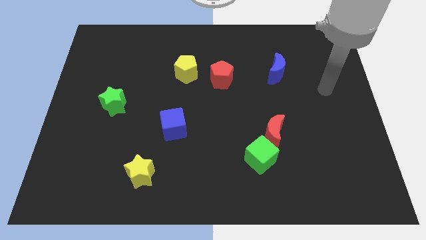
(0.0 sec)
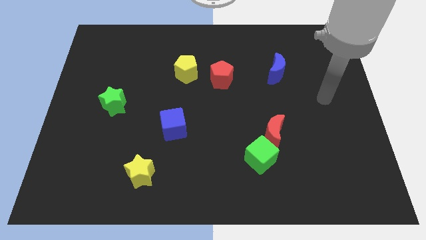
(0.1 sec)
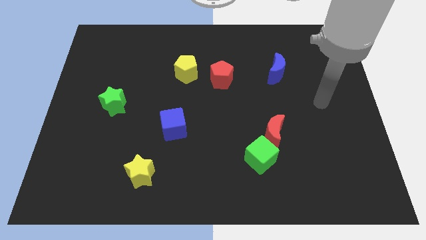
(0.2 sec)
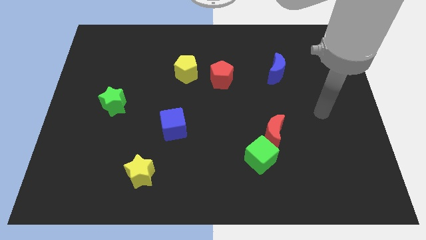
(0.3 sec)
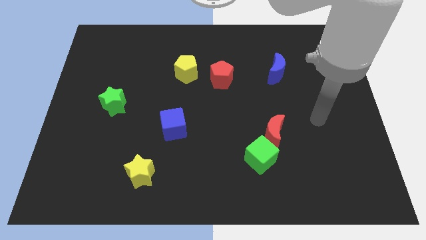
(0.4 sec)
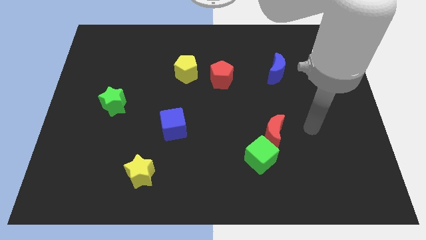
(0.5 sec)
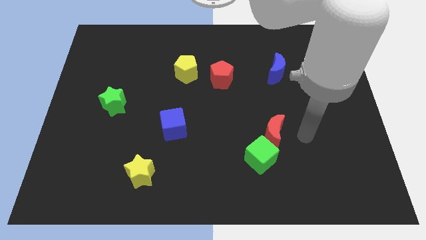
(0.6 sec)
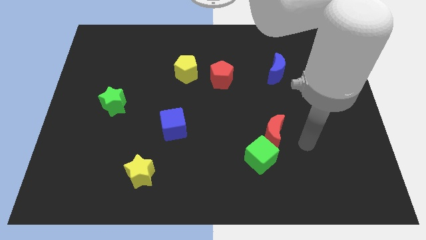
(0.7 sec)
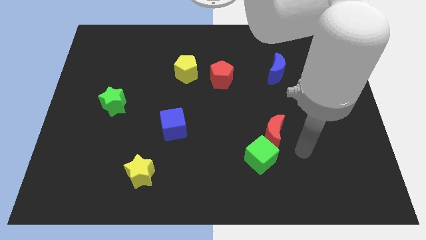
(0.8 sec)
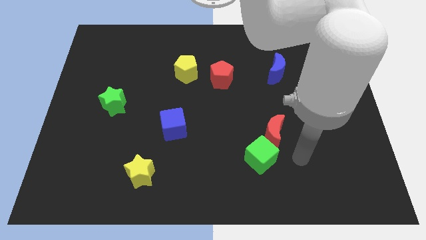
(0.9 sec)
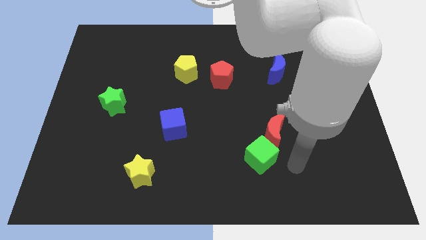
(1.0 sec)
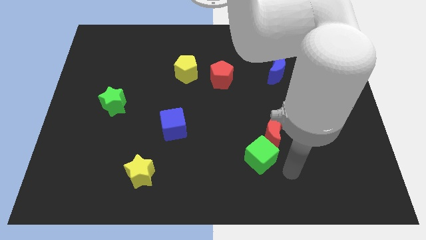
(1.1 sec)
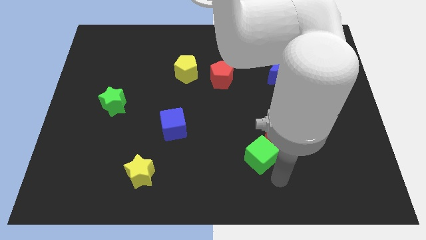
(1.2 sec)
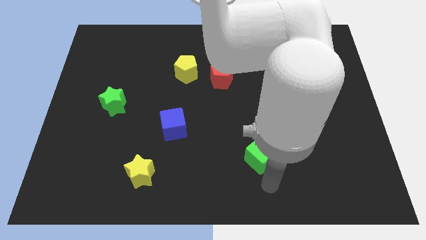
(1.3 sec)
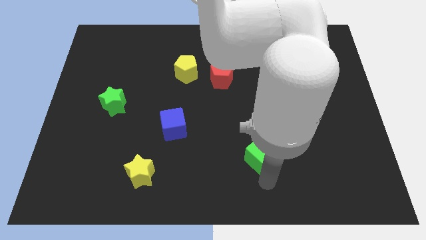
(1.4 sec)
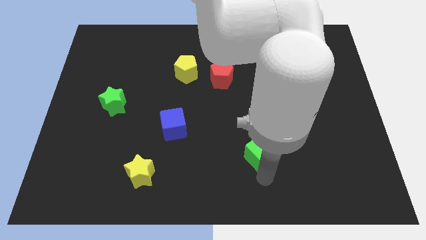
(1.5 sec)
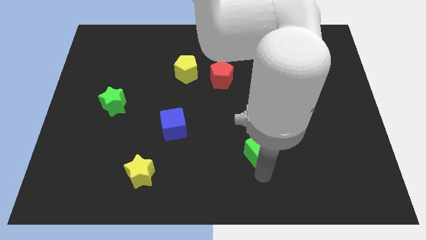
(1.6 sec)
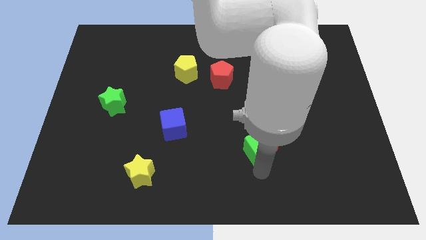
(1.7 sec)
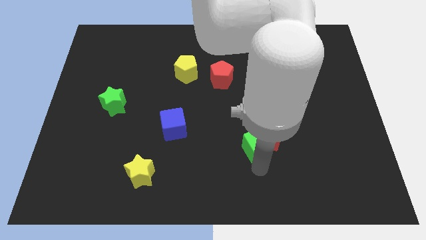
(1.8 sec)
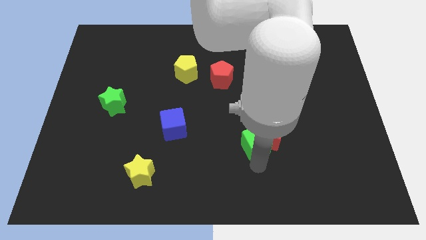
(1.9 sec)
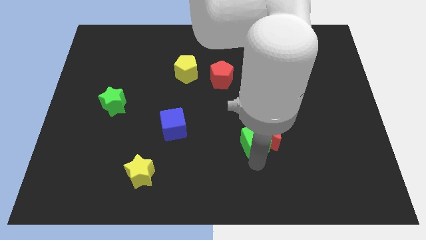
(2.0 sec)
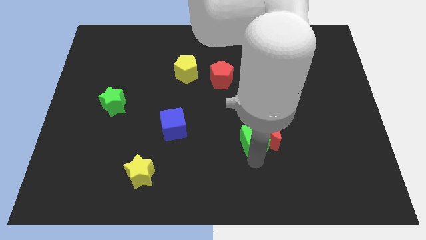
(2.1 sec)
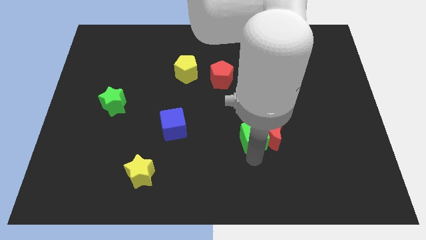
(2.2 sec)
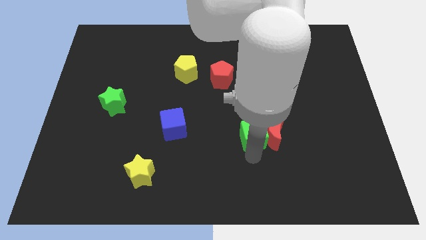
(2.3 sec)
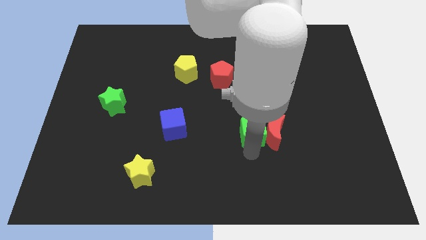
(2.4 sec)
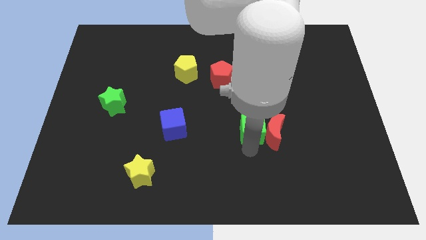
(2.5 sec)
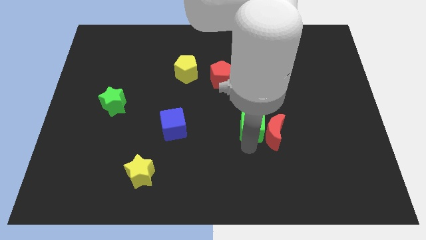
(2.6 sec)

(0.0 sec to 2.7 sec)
move the green cube a little bit upwards

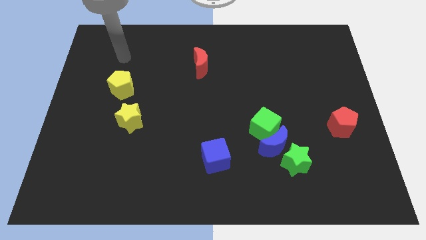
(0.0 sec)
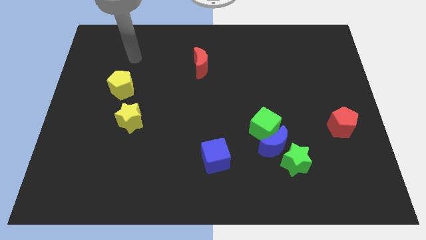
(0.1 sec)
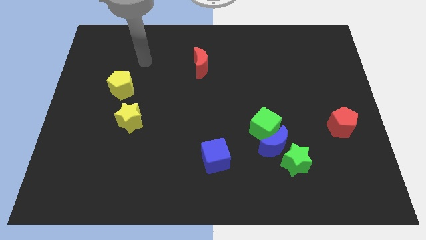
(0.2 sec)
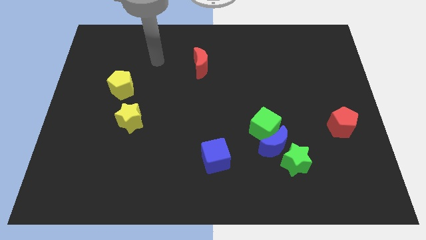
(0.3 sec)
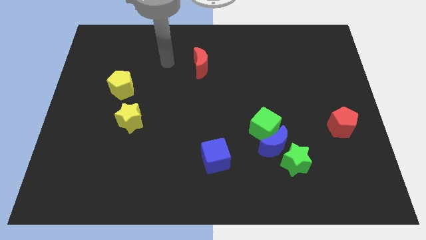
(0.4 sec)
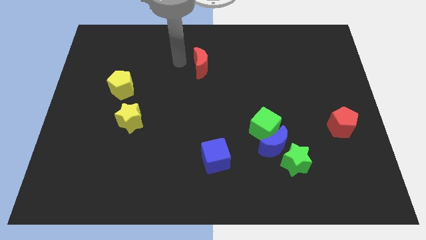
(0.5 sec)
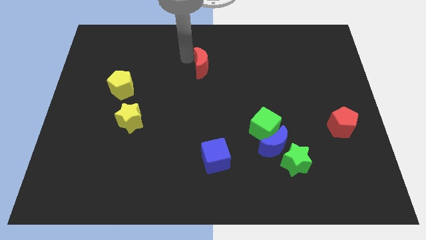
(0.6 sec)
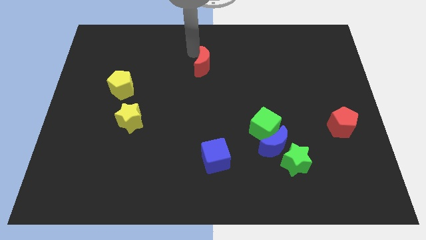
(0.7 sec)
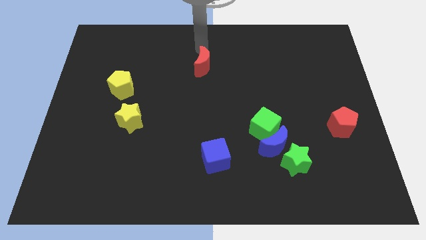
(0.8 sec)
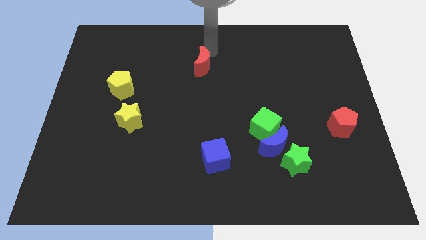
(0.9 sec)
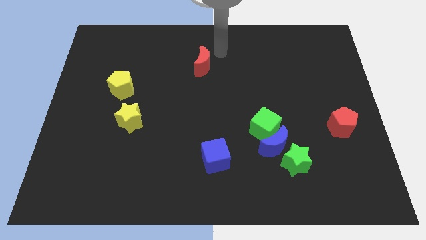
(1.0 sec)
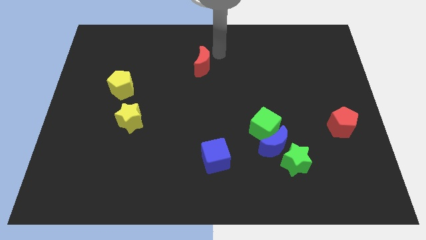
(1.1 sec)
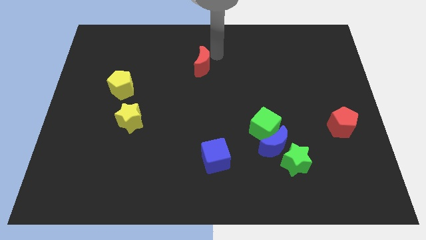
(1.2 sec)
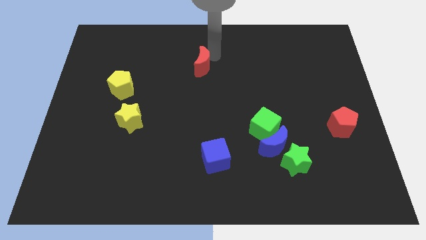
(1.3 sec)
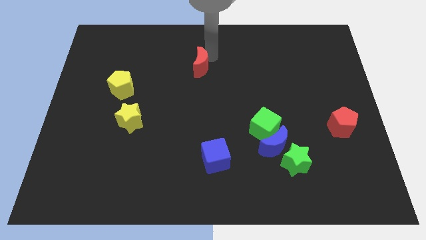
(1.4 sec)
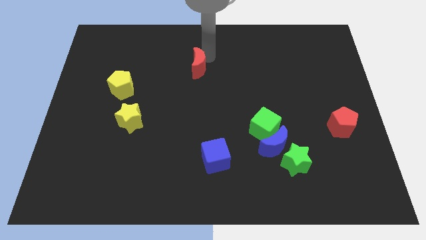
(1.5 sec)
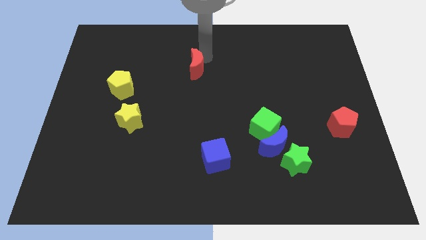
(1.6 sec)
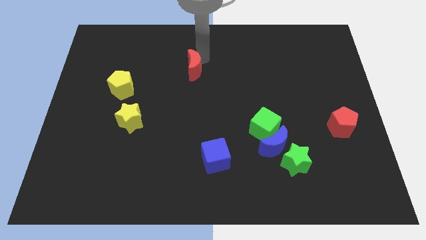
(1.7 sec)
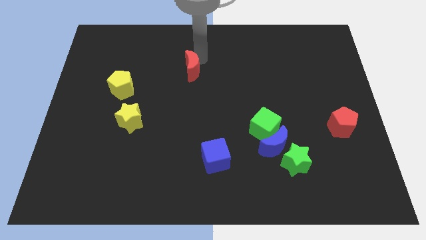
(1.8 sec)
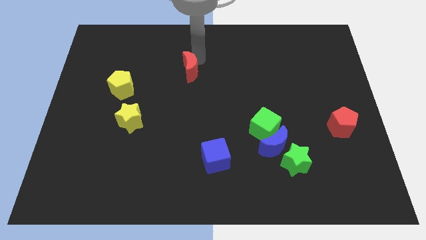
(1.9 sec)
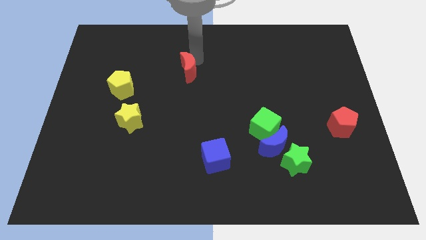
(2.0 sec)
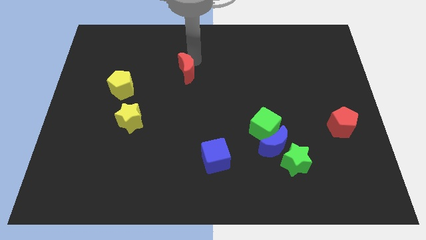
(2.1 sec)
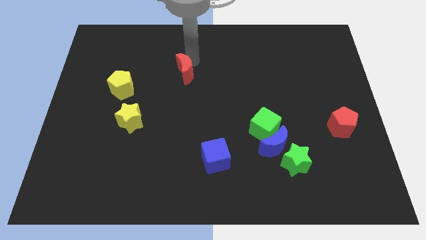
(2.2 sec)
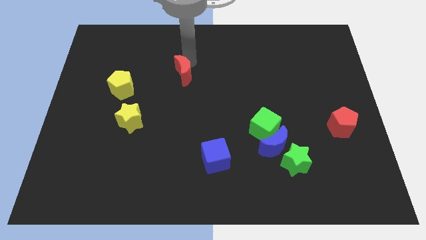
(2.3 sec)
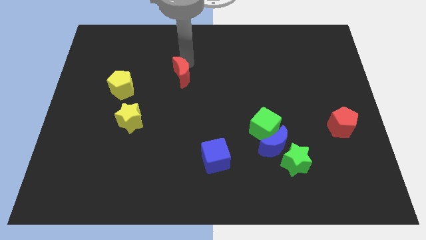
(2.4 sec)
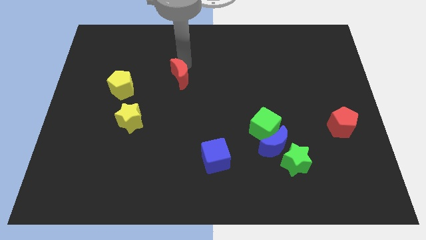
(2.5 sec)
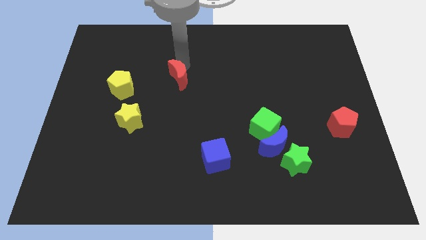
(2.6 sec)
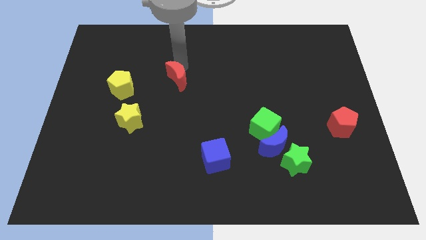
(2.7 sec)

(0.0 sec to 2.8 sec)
push the red moon slightly downwards and to the left diagonally

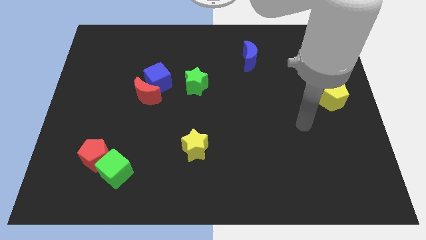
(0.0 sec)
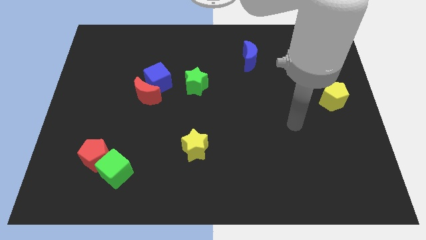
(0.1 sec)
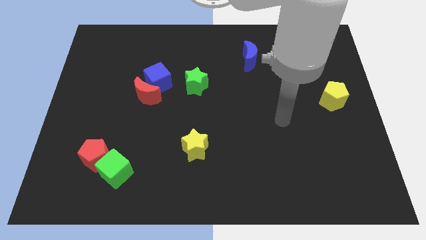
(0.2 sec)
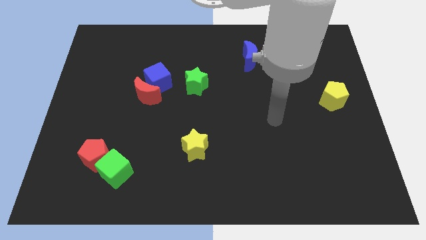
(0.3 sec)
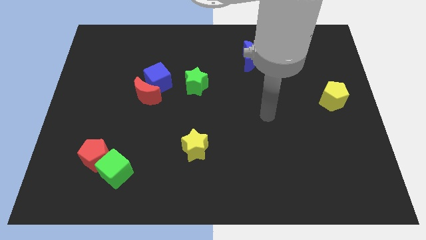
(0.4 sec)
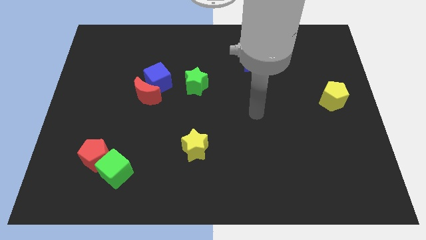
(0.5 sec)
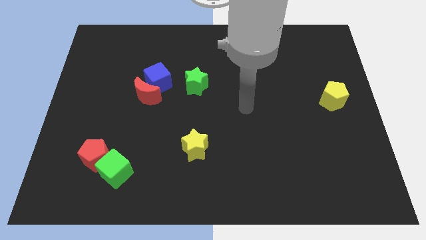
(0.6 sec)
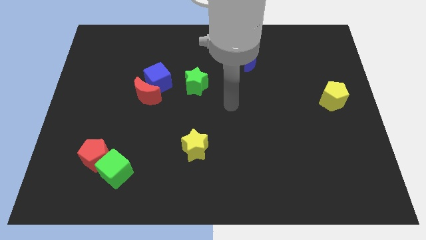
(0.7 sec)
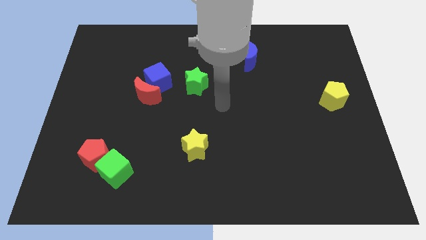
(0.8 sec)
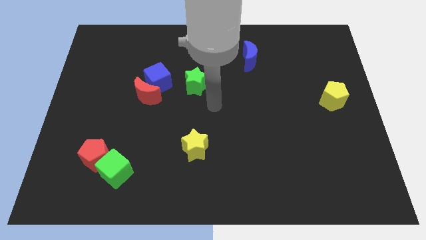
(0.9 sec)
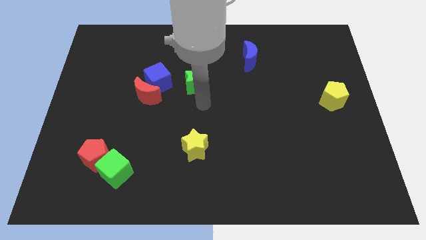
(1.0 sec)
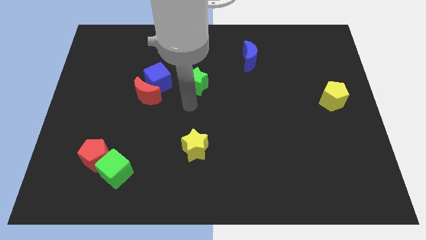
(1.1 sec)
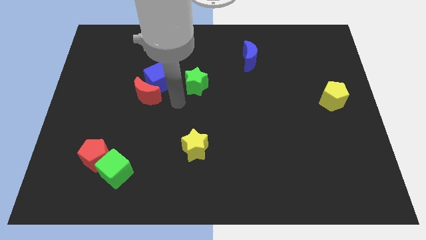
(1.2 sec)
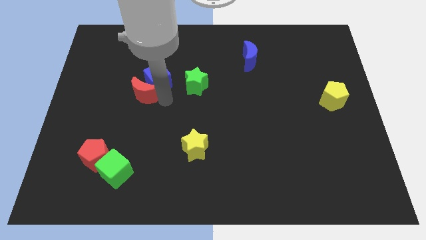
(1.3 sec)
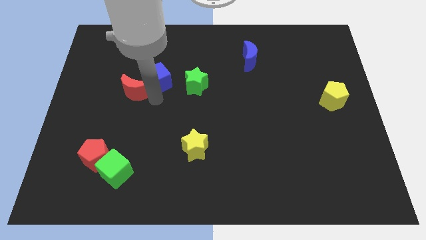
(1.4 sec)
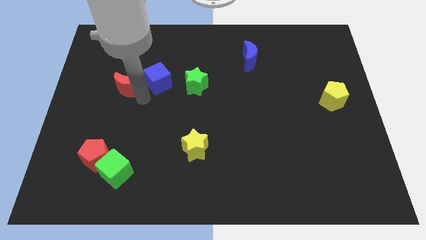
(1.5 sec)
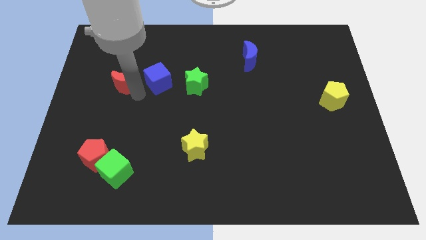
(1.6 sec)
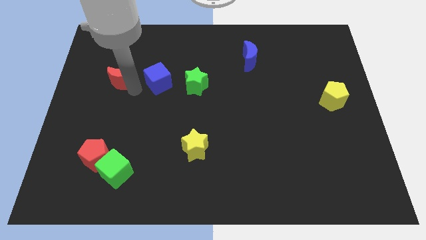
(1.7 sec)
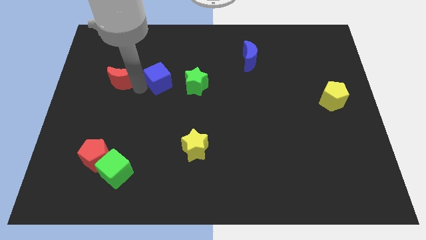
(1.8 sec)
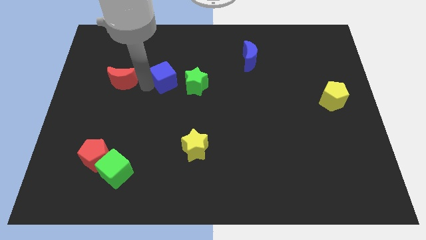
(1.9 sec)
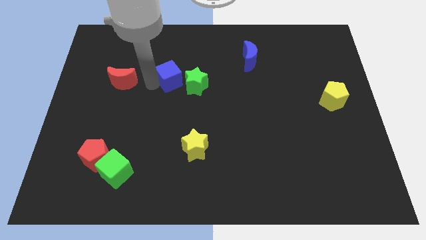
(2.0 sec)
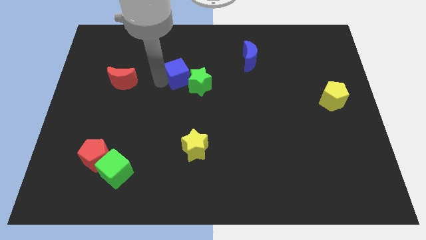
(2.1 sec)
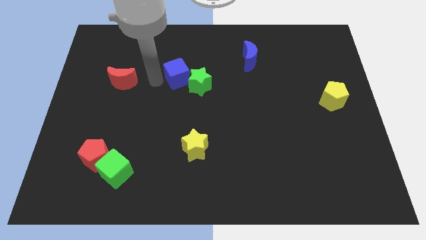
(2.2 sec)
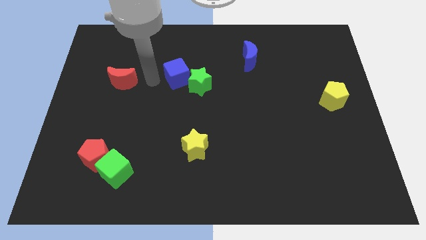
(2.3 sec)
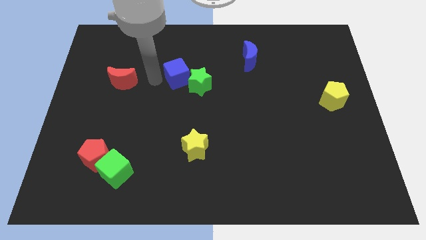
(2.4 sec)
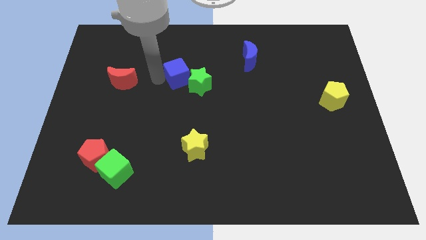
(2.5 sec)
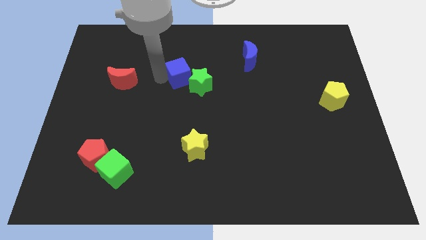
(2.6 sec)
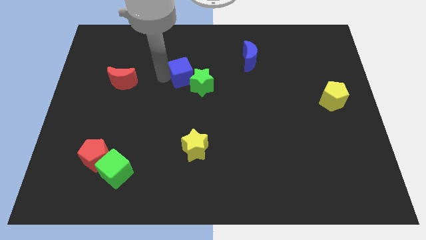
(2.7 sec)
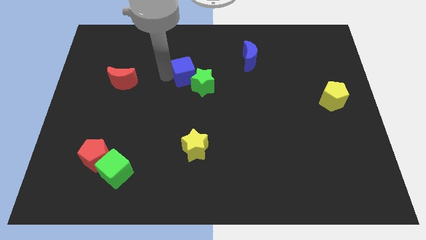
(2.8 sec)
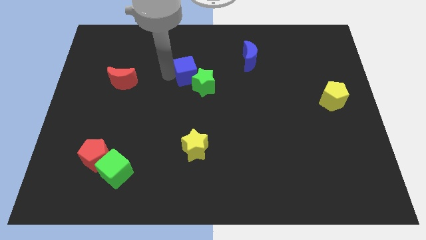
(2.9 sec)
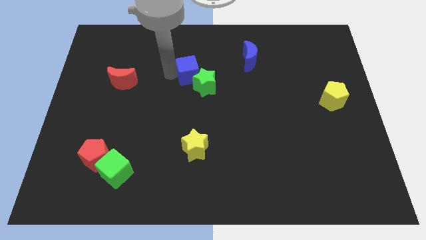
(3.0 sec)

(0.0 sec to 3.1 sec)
move the blue cube to the right somewhat
